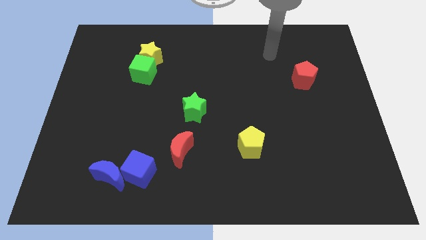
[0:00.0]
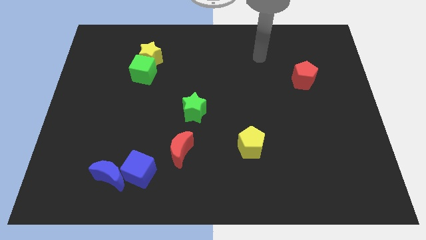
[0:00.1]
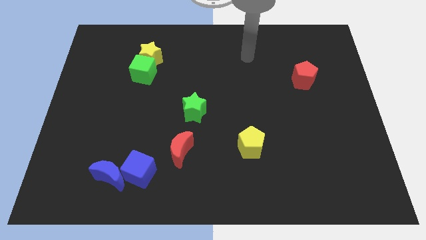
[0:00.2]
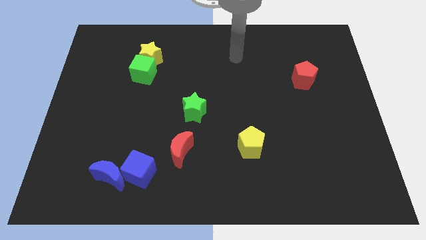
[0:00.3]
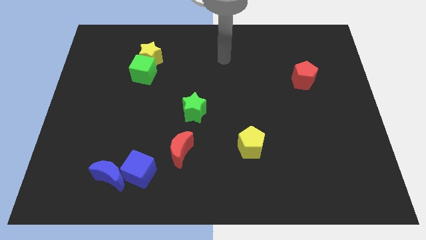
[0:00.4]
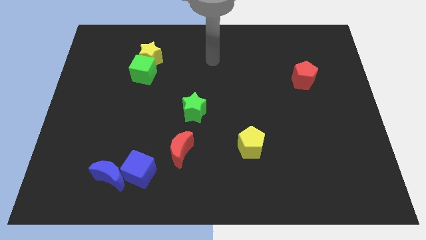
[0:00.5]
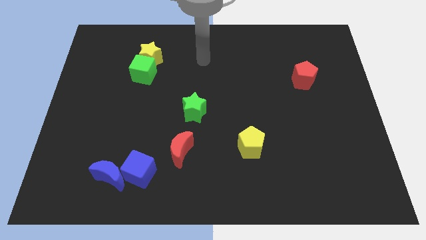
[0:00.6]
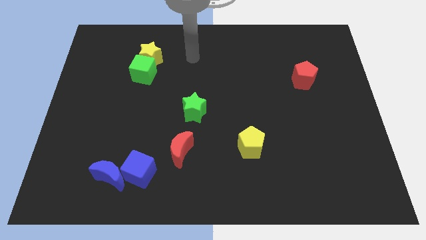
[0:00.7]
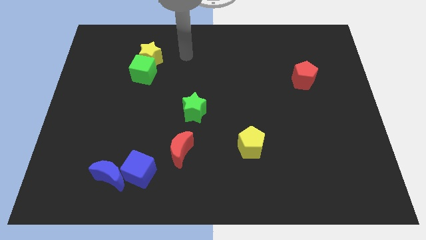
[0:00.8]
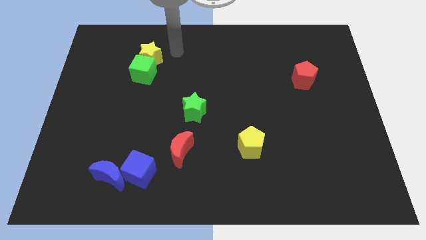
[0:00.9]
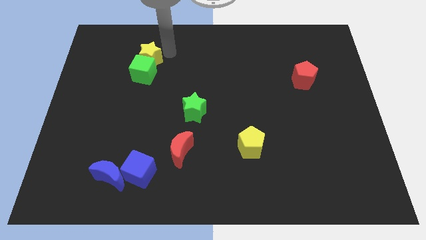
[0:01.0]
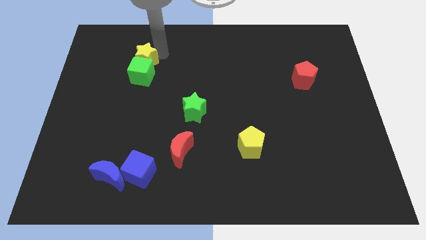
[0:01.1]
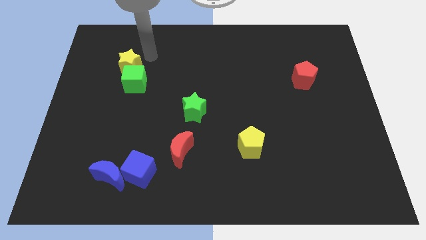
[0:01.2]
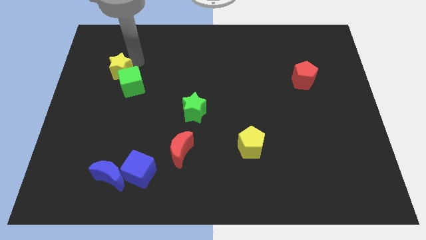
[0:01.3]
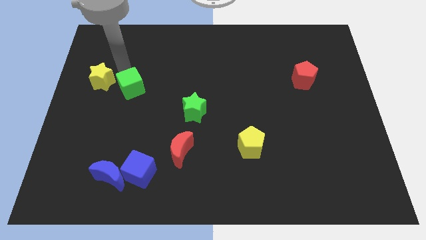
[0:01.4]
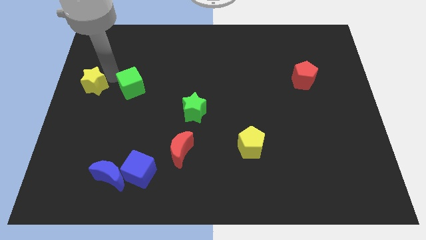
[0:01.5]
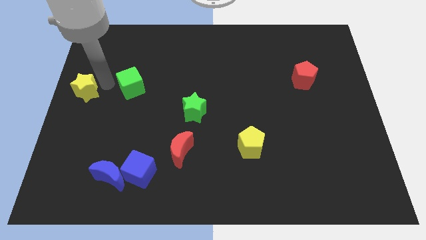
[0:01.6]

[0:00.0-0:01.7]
move the green cube away from the yellow star

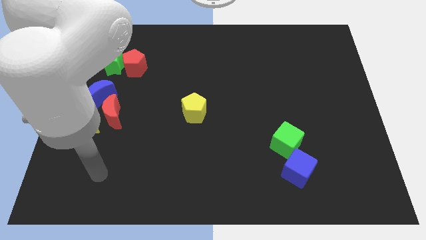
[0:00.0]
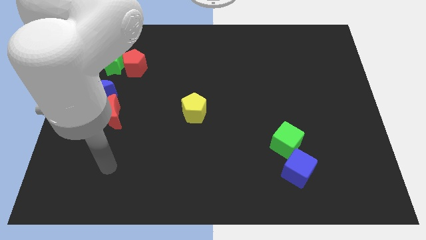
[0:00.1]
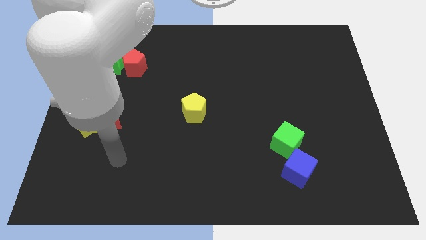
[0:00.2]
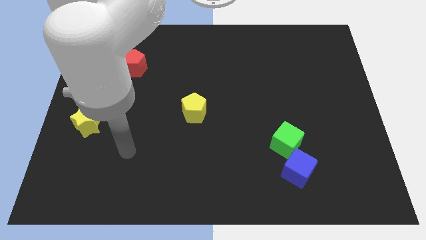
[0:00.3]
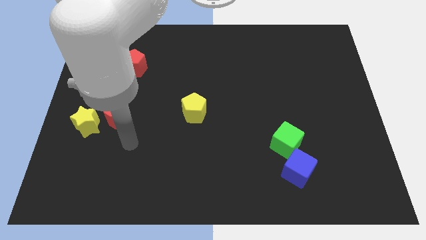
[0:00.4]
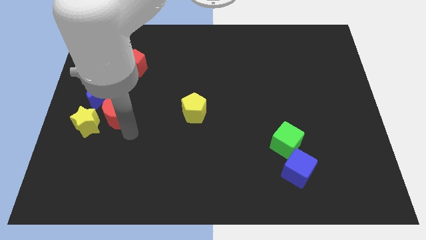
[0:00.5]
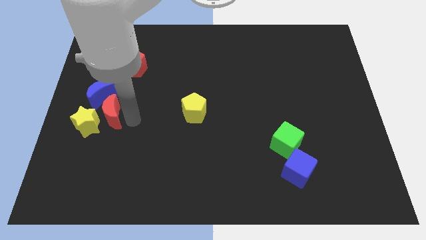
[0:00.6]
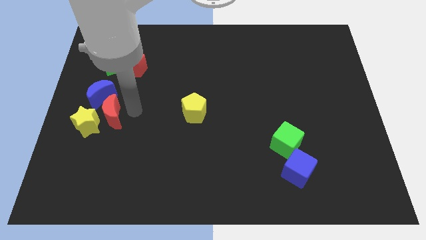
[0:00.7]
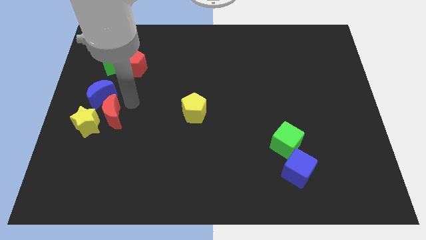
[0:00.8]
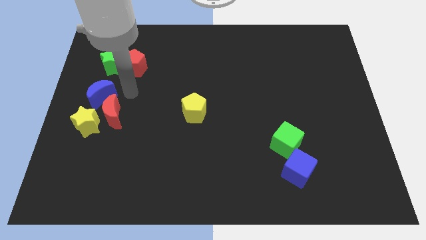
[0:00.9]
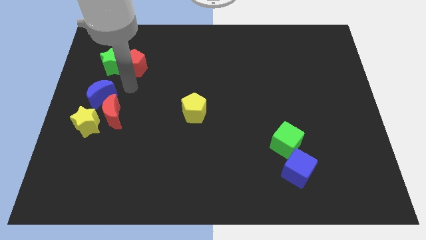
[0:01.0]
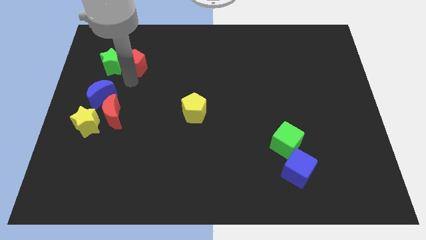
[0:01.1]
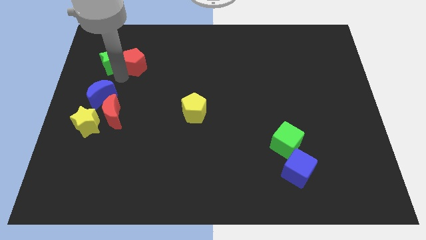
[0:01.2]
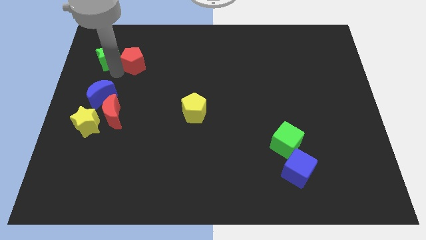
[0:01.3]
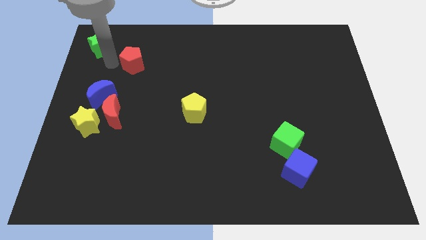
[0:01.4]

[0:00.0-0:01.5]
move the red pentagon away from the green star

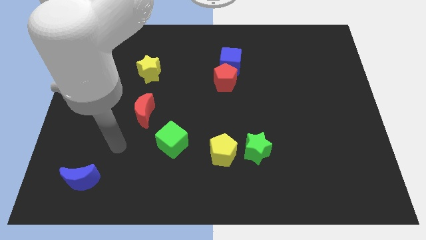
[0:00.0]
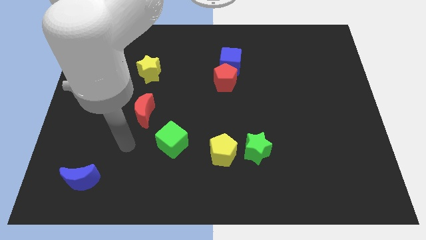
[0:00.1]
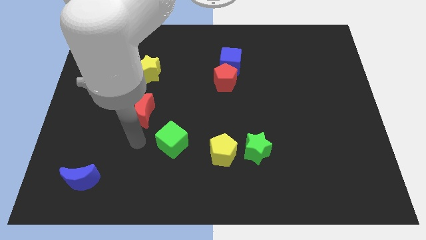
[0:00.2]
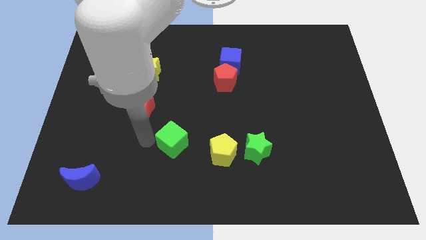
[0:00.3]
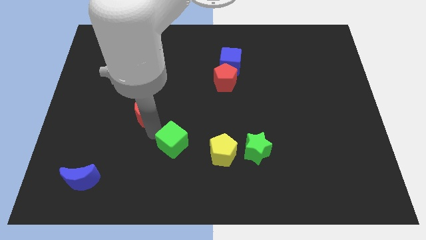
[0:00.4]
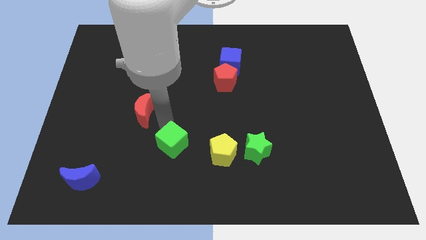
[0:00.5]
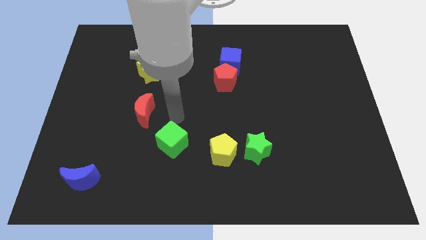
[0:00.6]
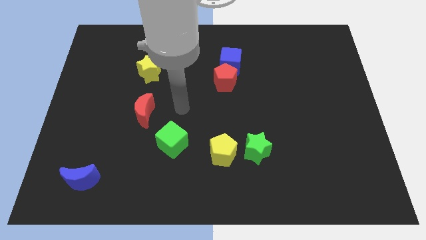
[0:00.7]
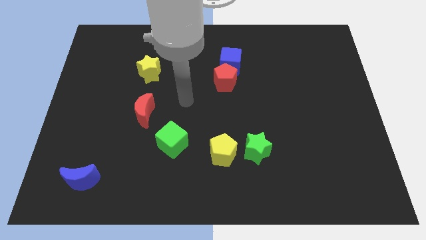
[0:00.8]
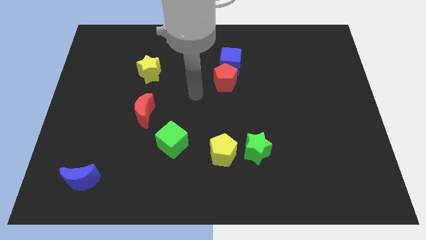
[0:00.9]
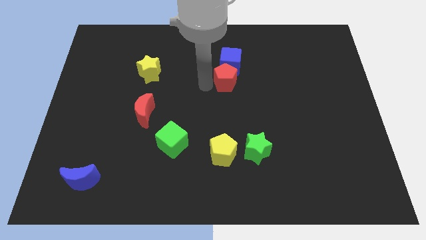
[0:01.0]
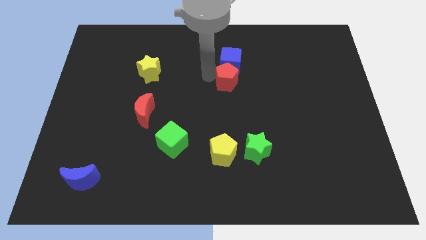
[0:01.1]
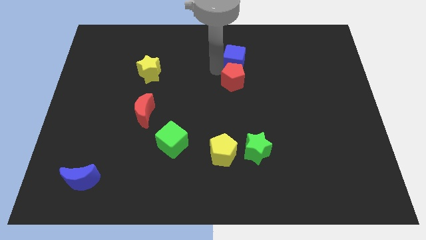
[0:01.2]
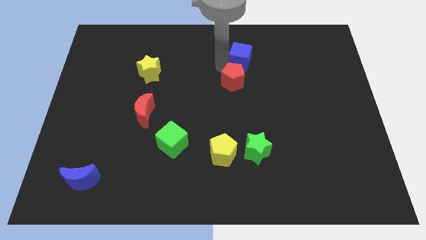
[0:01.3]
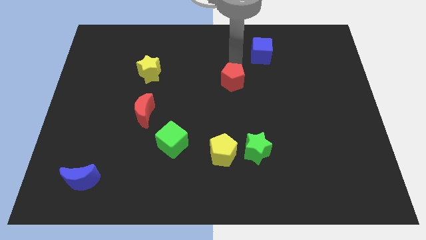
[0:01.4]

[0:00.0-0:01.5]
separate the red pentagon from the blue cube

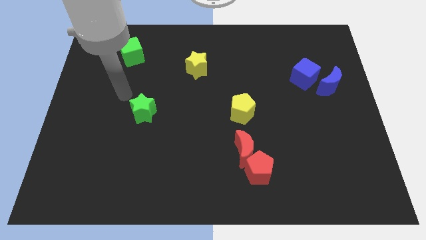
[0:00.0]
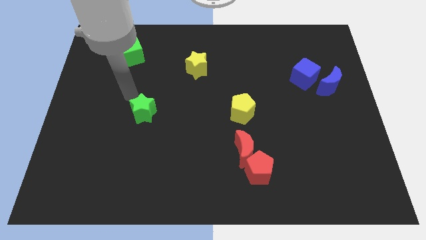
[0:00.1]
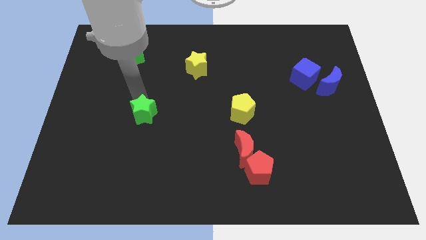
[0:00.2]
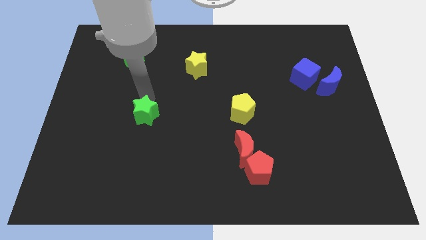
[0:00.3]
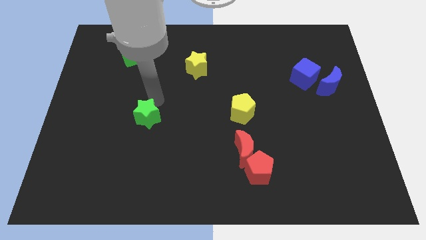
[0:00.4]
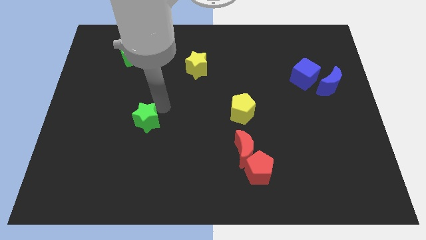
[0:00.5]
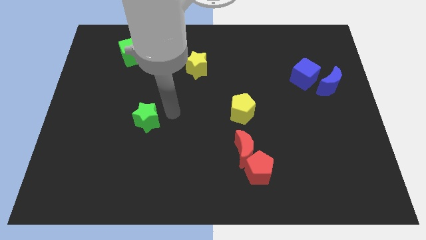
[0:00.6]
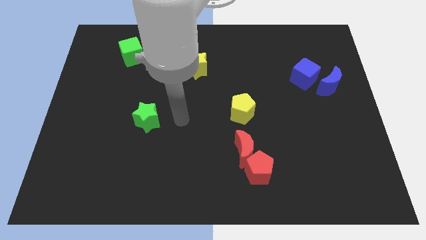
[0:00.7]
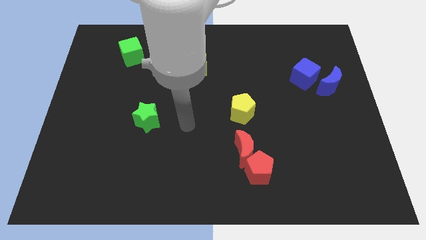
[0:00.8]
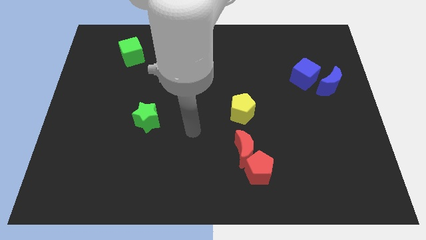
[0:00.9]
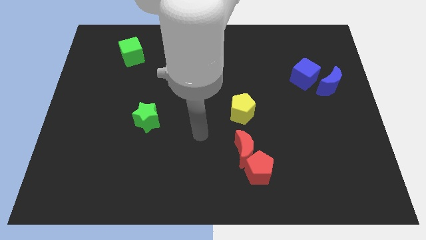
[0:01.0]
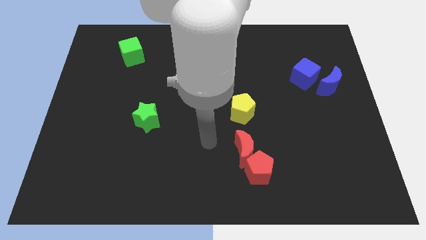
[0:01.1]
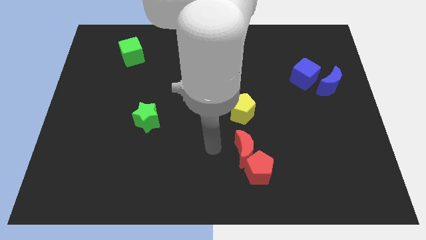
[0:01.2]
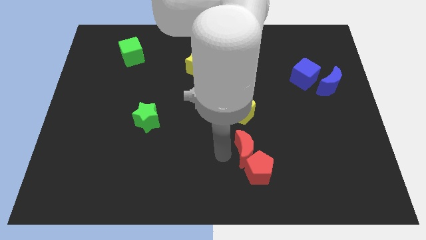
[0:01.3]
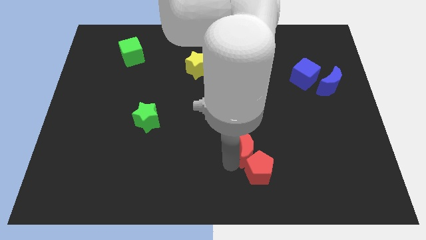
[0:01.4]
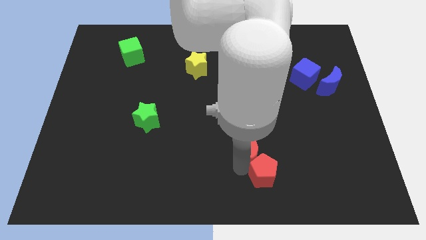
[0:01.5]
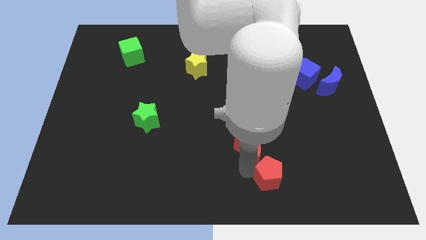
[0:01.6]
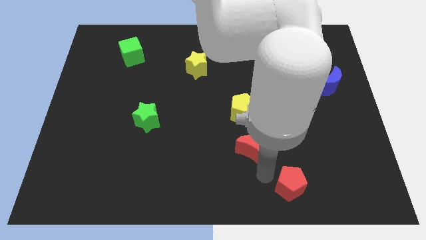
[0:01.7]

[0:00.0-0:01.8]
separate the red moon from the red pentagon

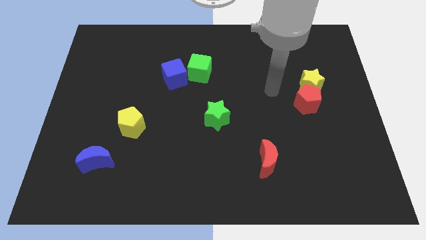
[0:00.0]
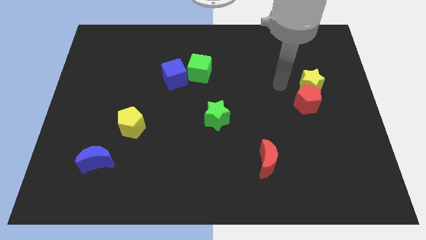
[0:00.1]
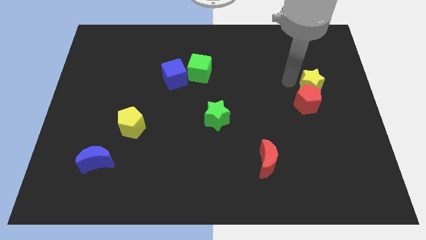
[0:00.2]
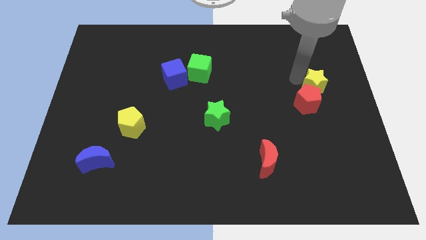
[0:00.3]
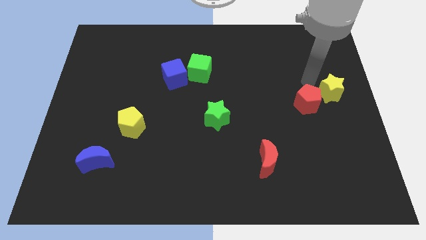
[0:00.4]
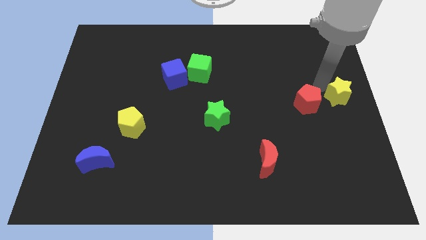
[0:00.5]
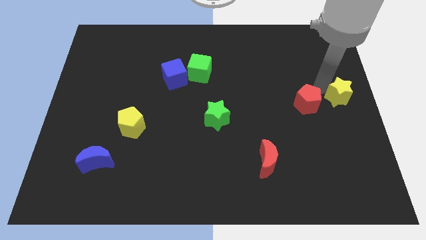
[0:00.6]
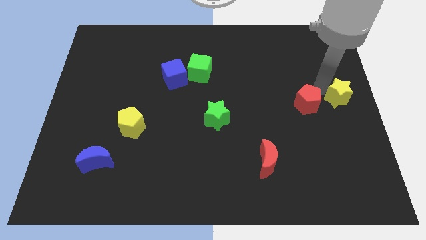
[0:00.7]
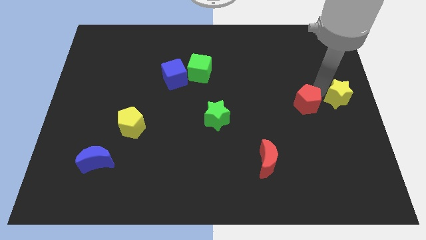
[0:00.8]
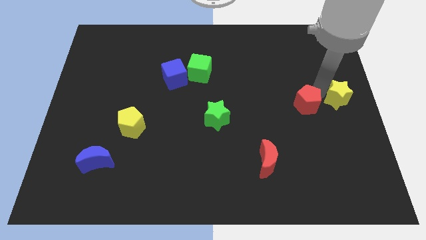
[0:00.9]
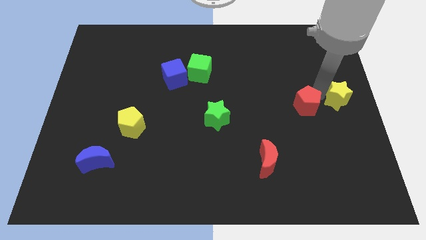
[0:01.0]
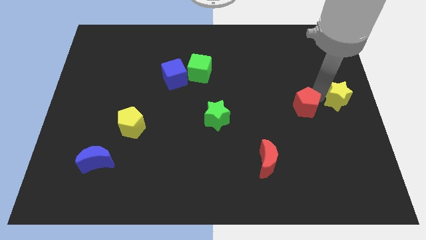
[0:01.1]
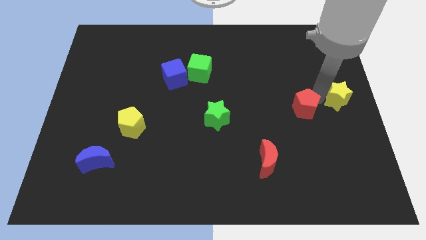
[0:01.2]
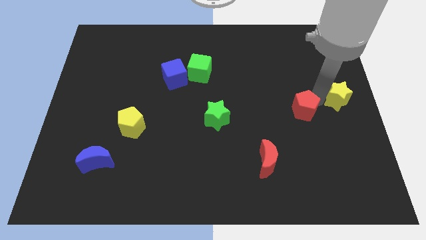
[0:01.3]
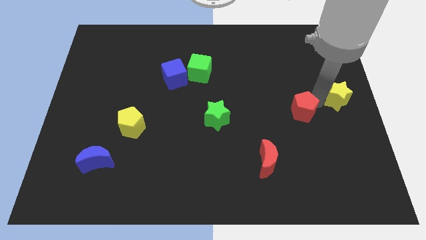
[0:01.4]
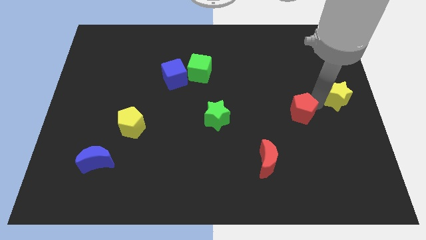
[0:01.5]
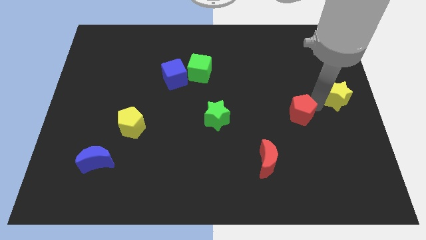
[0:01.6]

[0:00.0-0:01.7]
move the red pentagon away from the yellow star

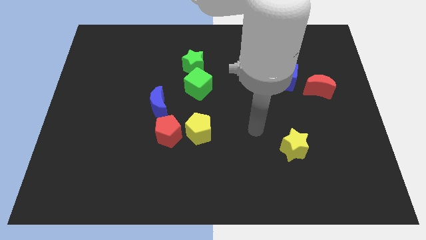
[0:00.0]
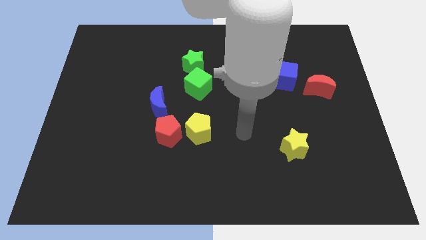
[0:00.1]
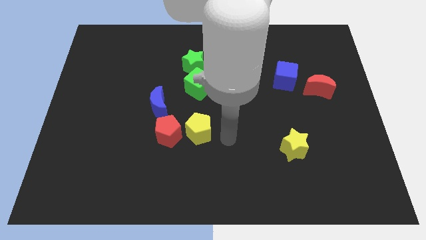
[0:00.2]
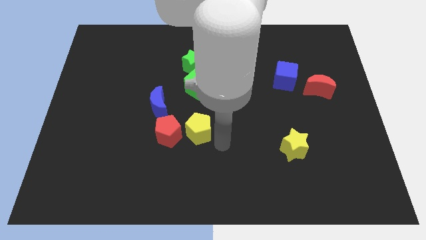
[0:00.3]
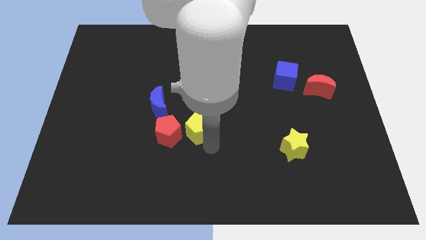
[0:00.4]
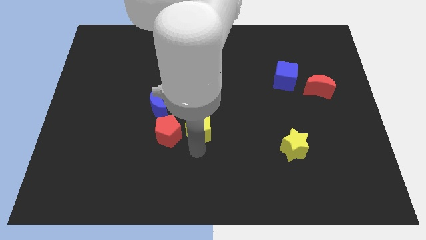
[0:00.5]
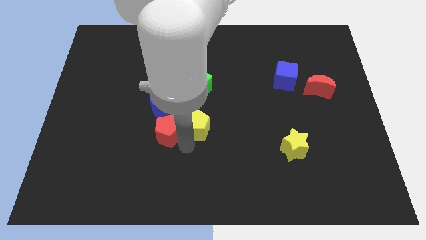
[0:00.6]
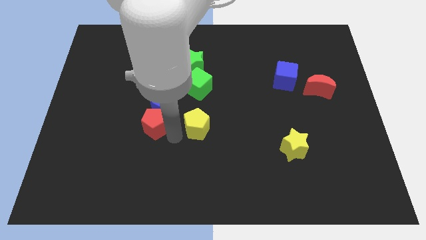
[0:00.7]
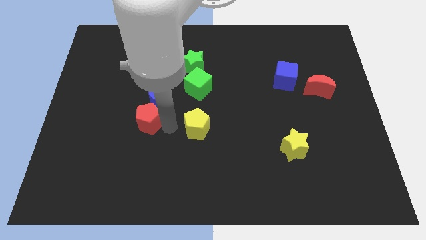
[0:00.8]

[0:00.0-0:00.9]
move the yellow pentagon away from the red pentagon
